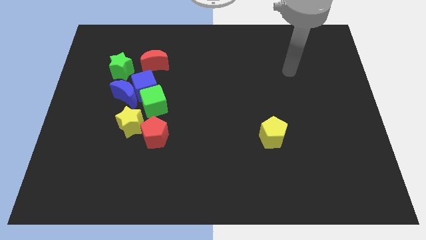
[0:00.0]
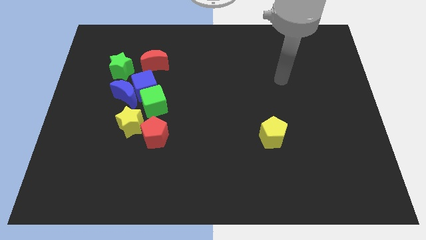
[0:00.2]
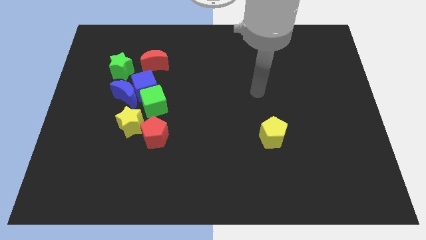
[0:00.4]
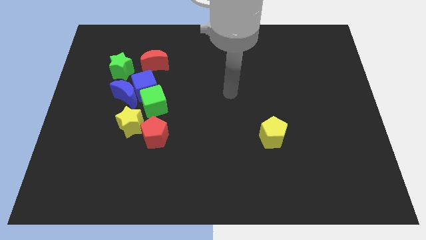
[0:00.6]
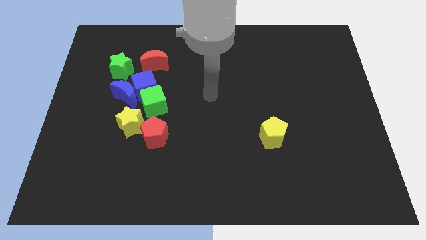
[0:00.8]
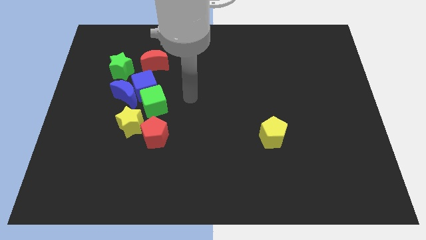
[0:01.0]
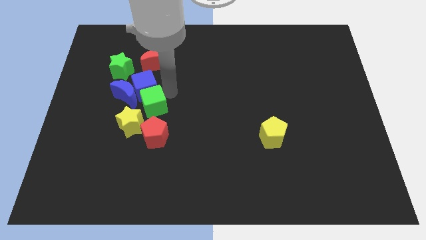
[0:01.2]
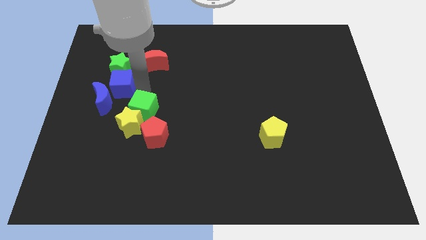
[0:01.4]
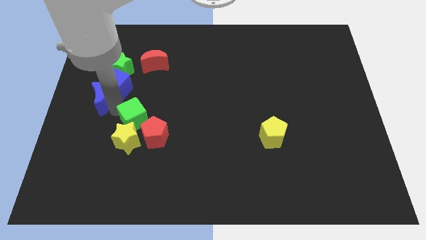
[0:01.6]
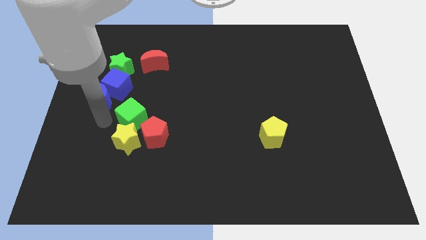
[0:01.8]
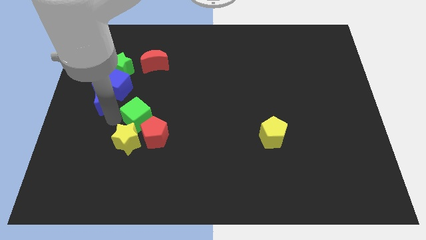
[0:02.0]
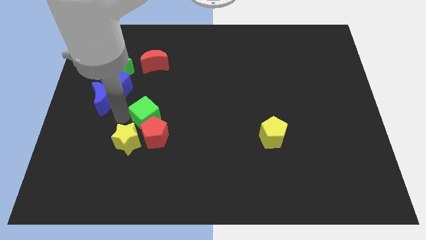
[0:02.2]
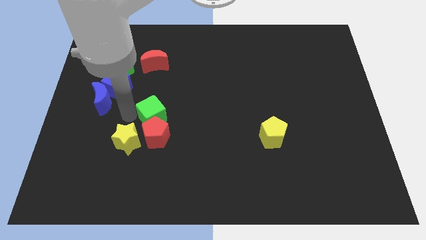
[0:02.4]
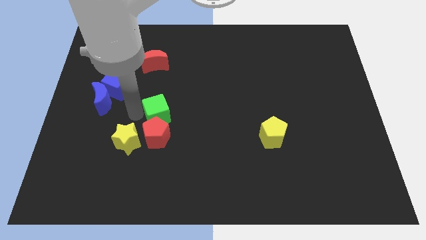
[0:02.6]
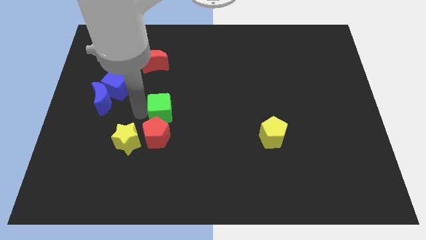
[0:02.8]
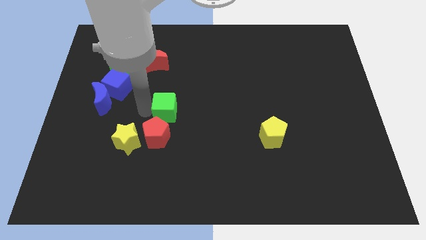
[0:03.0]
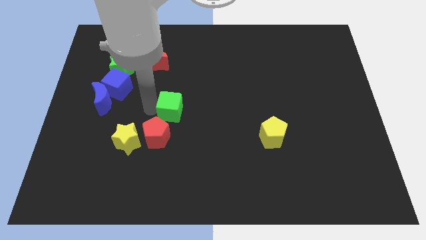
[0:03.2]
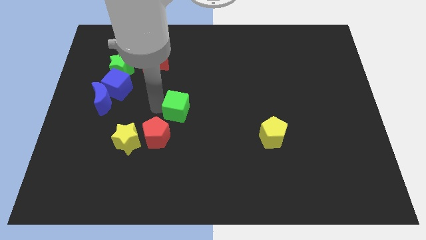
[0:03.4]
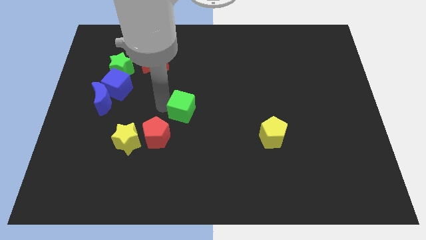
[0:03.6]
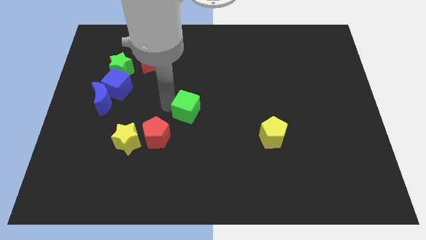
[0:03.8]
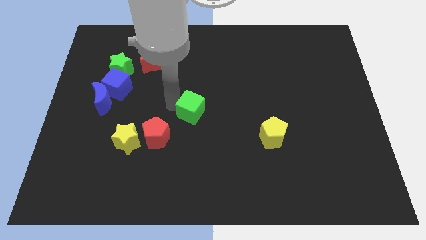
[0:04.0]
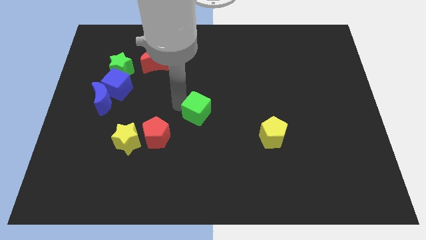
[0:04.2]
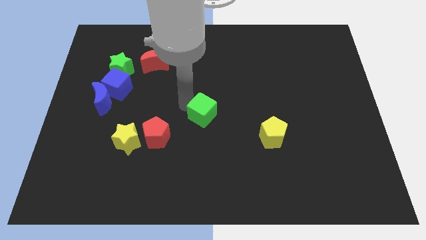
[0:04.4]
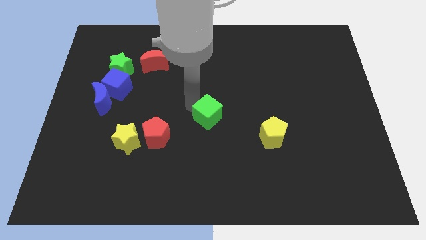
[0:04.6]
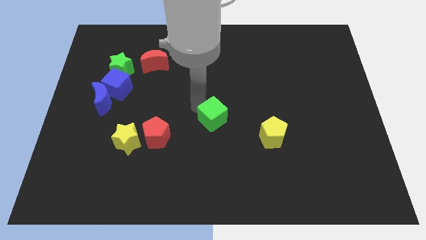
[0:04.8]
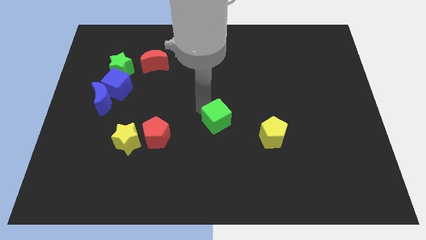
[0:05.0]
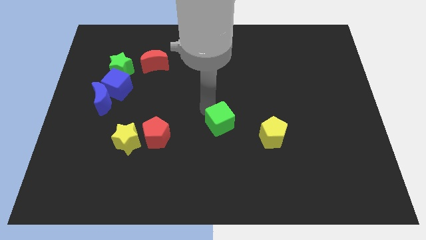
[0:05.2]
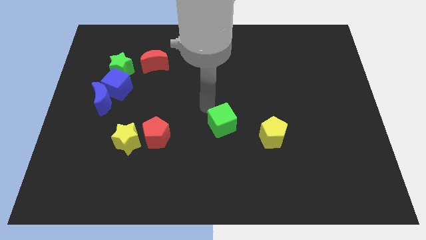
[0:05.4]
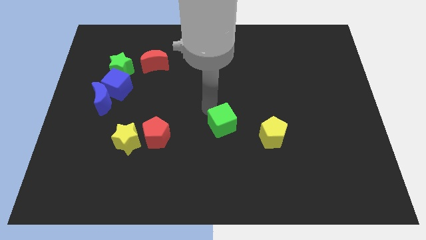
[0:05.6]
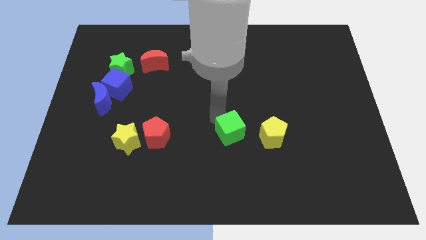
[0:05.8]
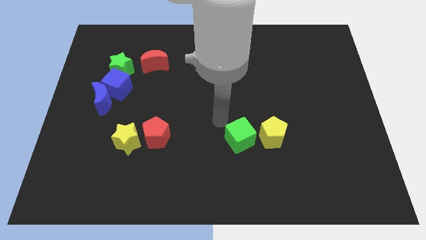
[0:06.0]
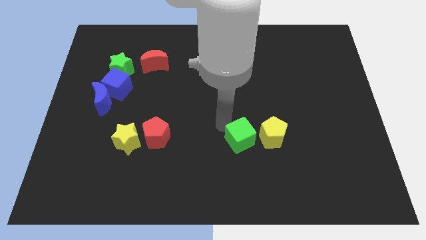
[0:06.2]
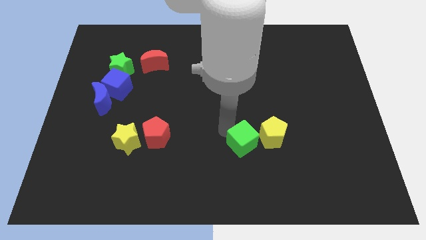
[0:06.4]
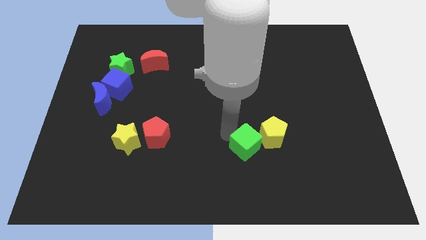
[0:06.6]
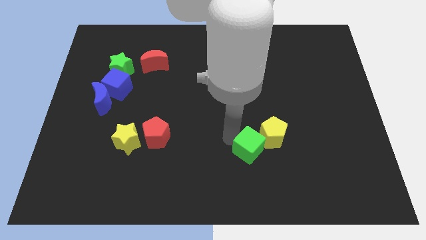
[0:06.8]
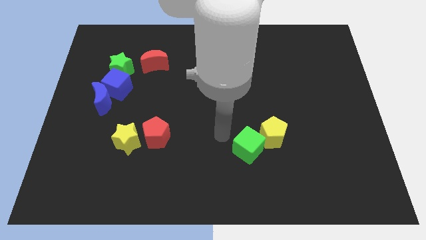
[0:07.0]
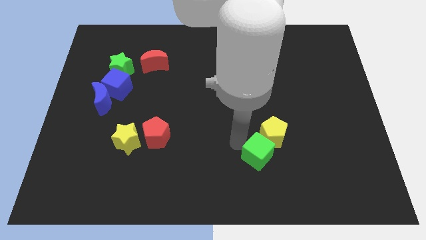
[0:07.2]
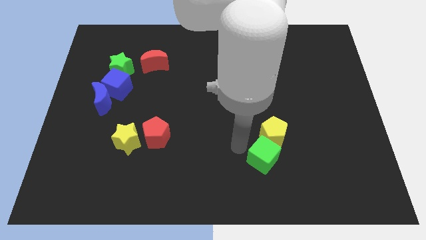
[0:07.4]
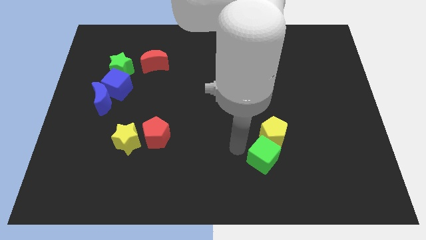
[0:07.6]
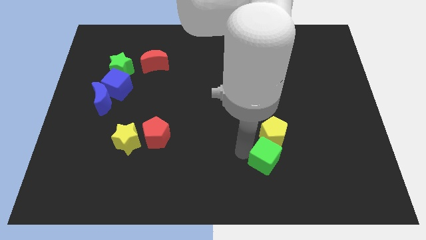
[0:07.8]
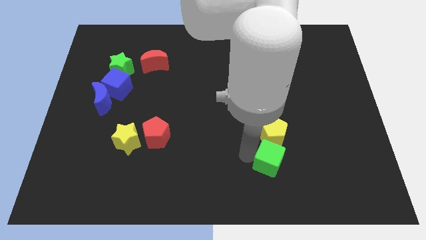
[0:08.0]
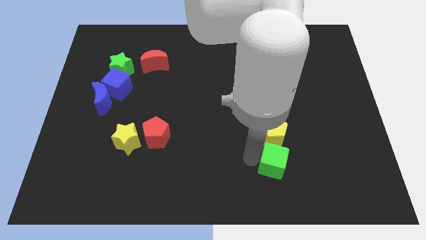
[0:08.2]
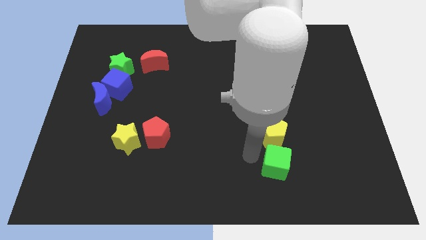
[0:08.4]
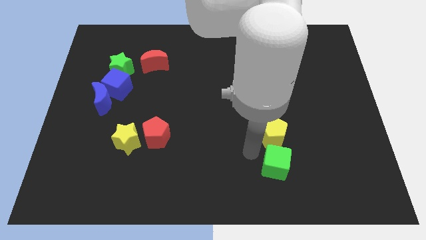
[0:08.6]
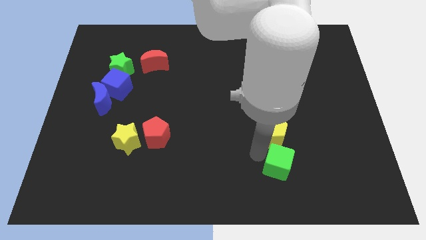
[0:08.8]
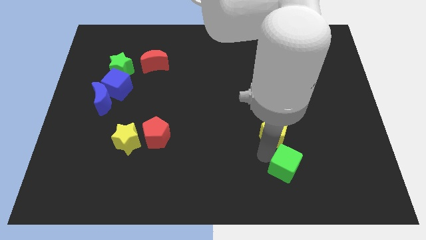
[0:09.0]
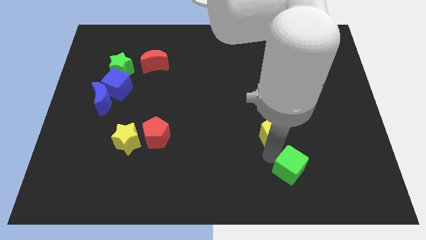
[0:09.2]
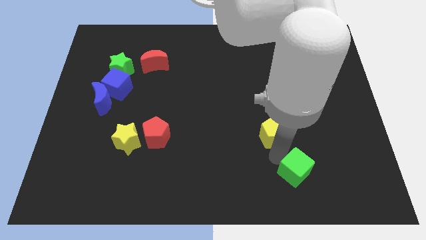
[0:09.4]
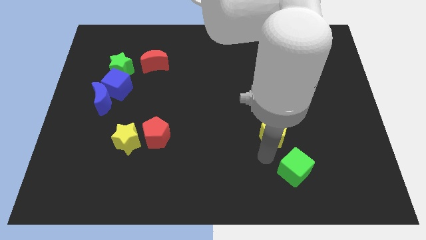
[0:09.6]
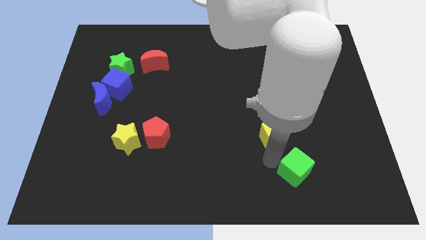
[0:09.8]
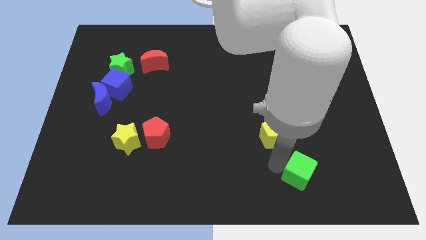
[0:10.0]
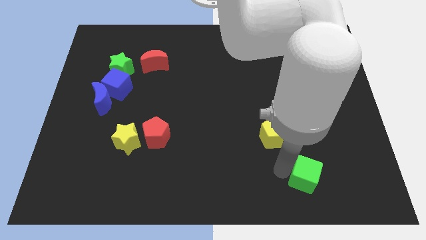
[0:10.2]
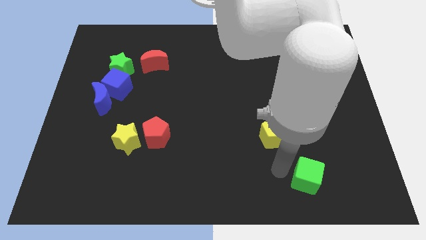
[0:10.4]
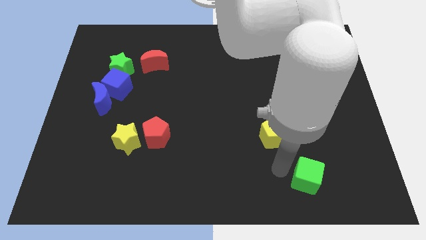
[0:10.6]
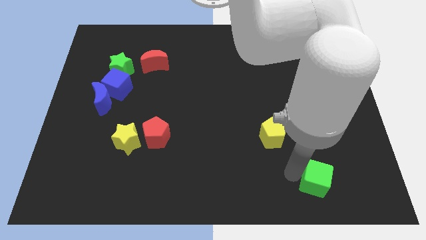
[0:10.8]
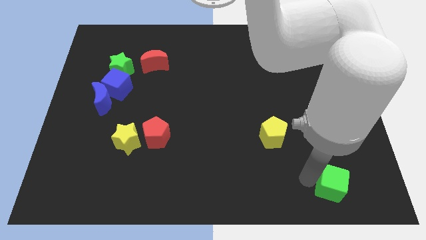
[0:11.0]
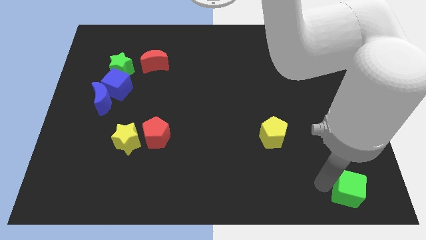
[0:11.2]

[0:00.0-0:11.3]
move the green cube to the lower right corner
